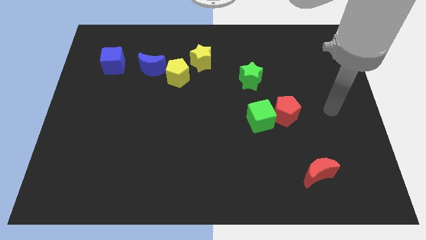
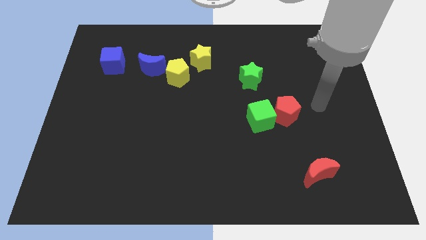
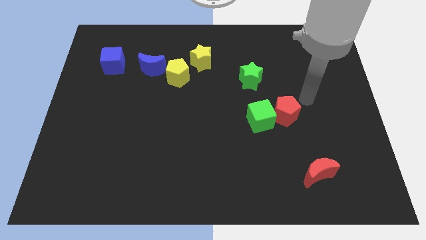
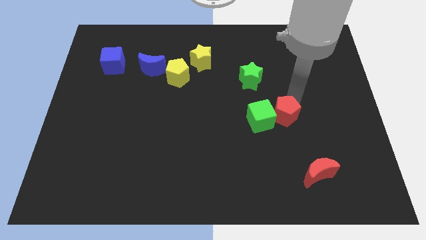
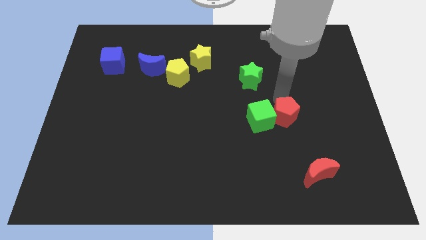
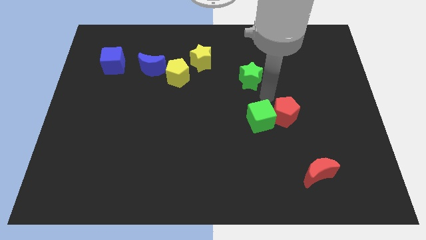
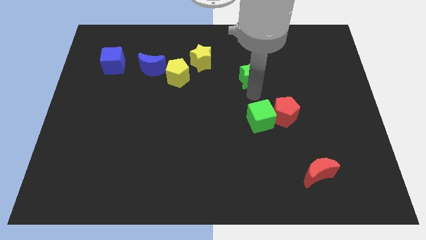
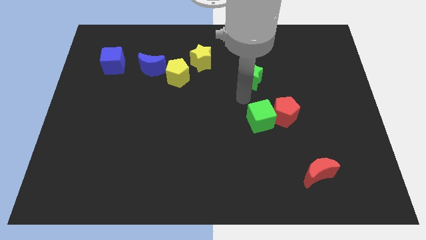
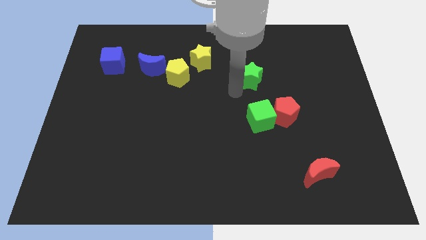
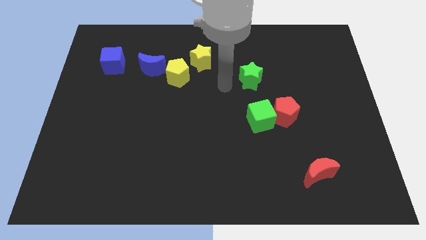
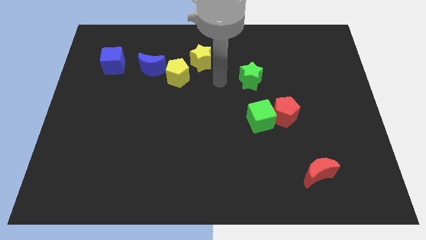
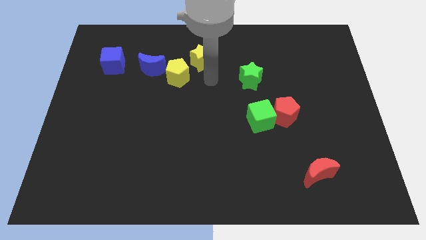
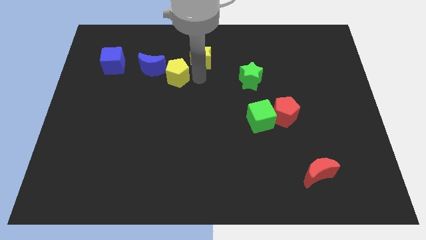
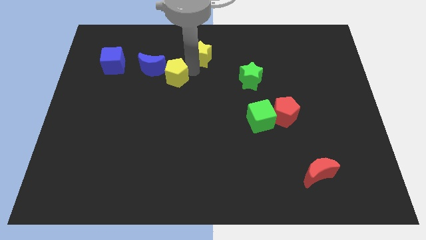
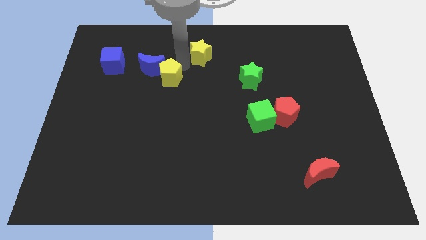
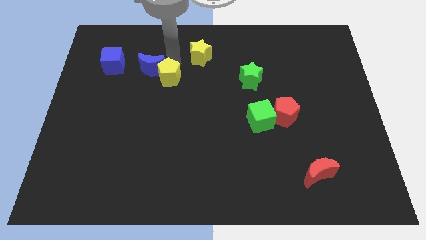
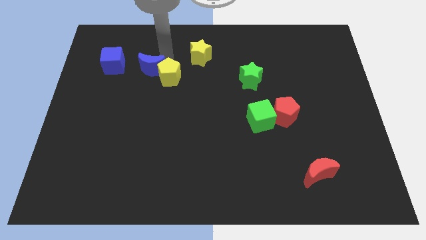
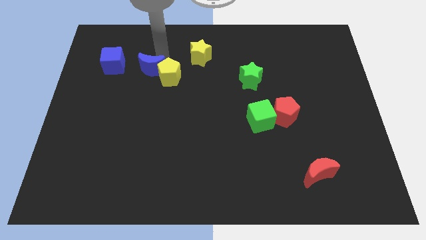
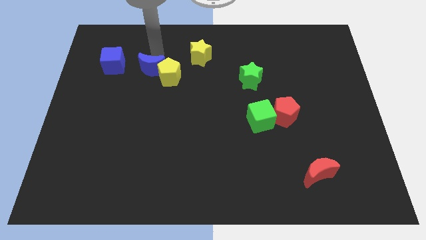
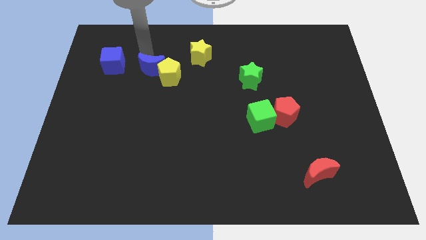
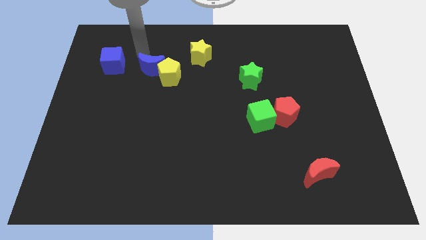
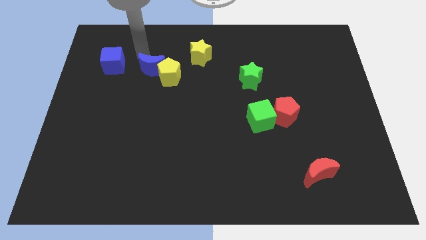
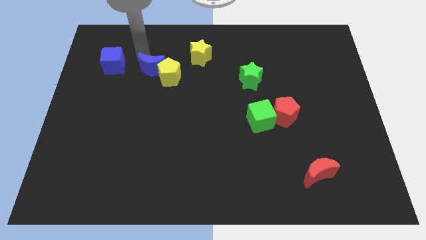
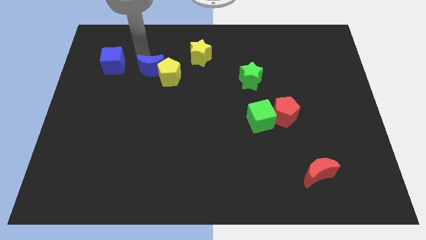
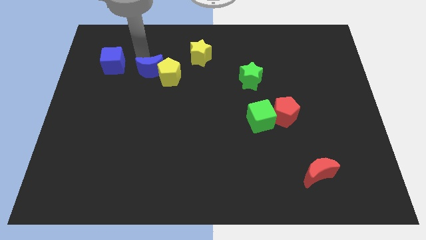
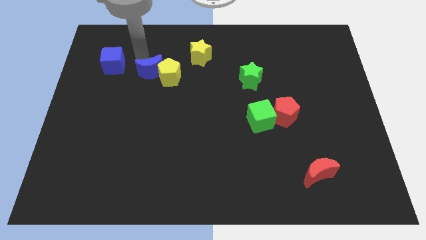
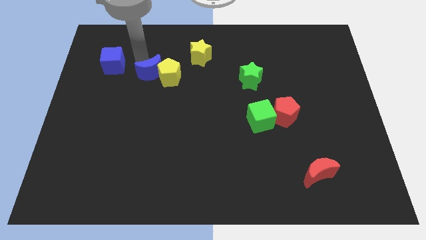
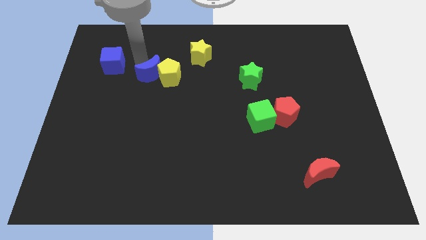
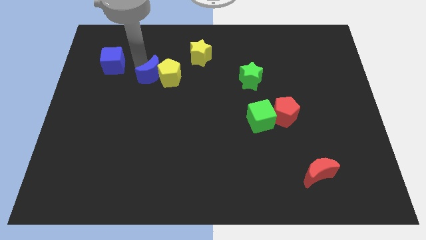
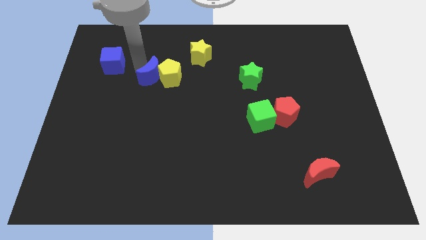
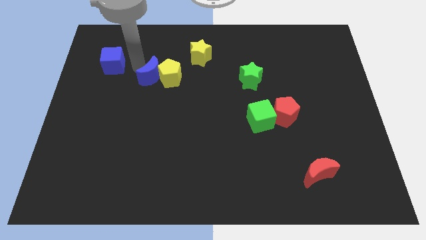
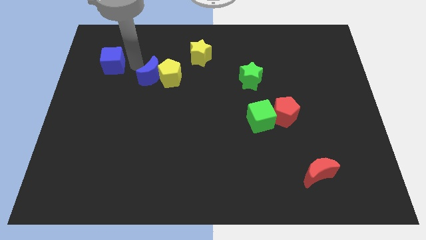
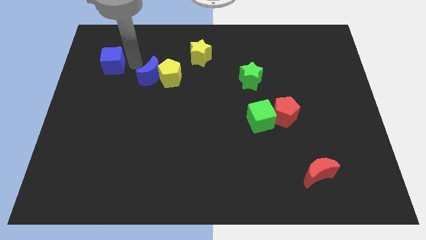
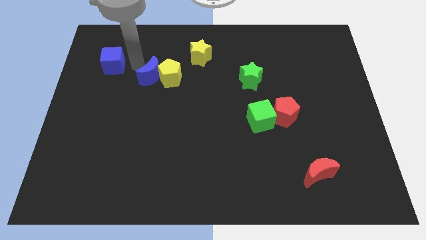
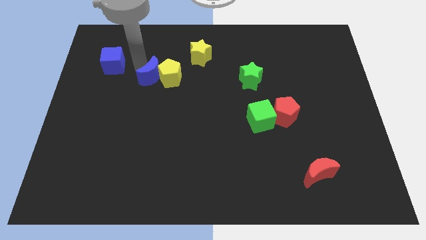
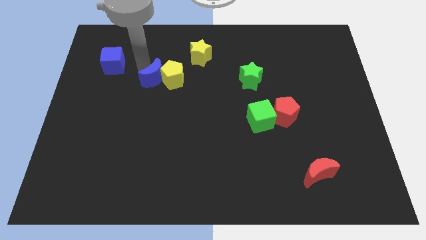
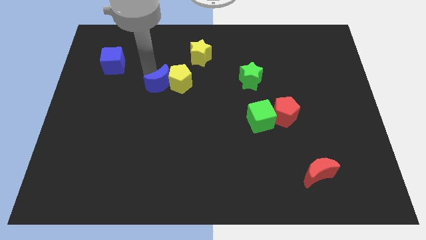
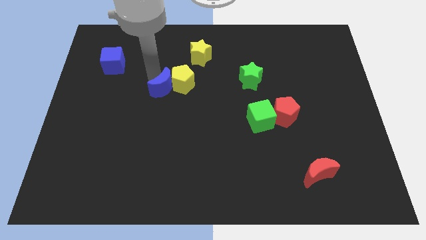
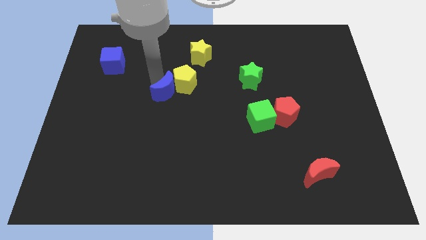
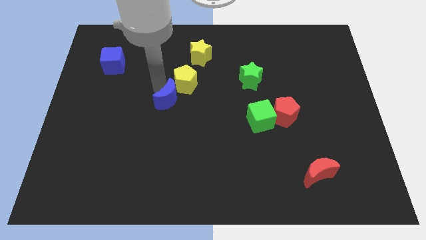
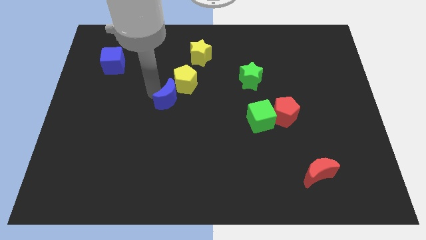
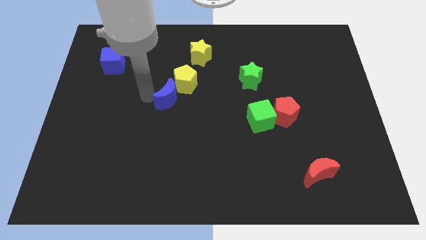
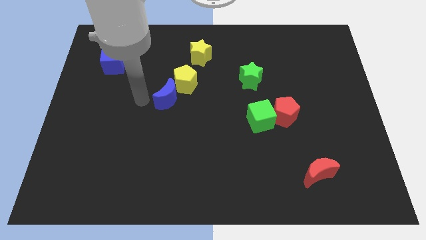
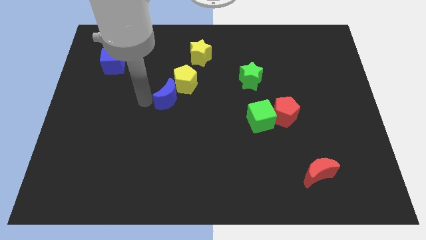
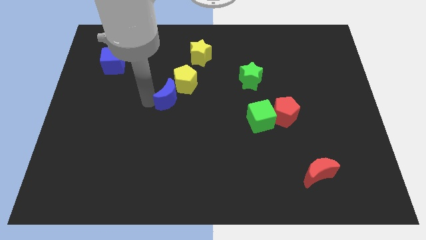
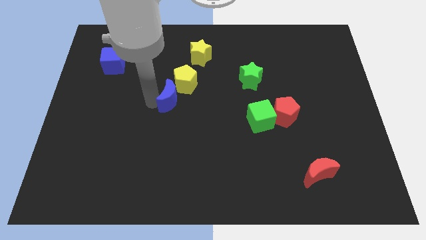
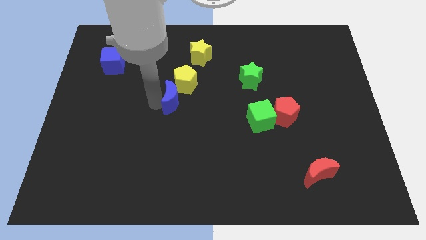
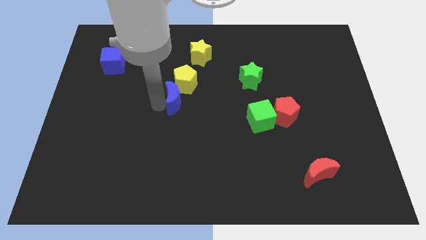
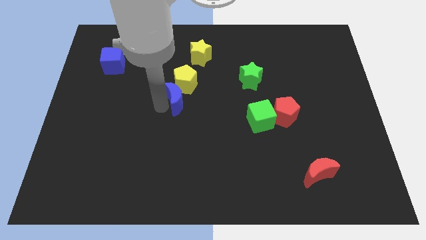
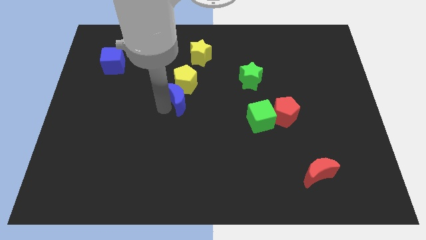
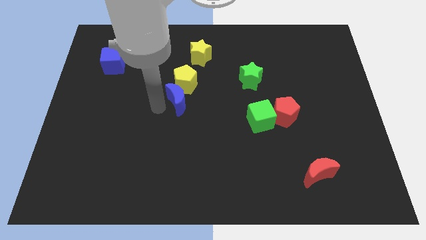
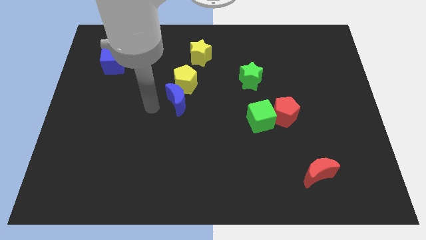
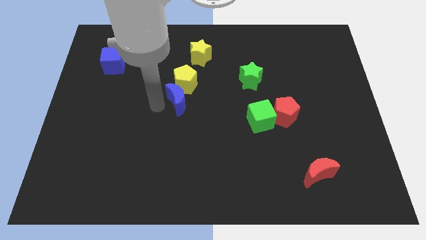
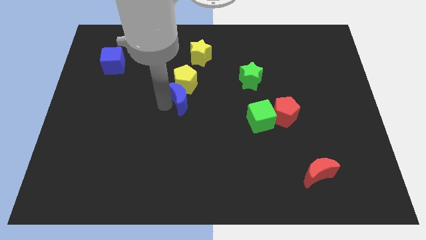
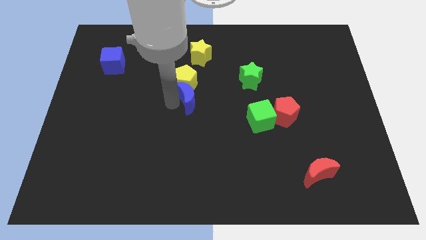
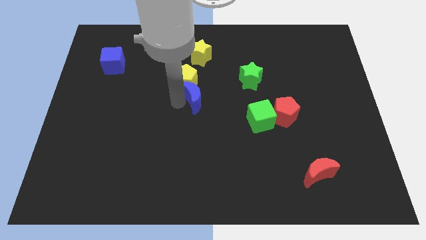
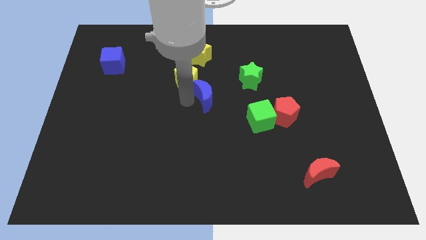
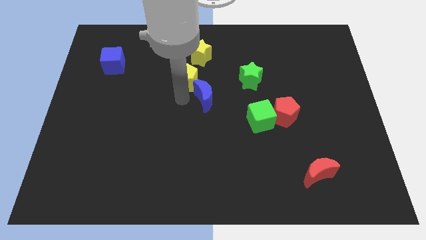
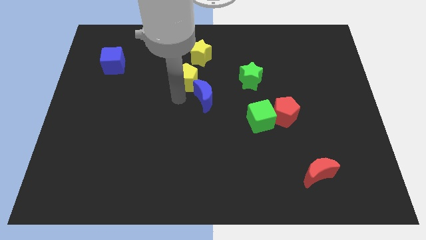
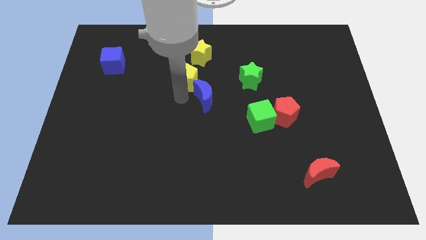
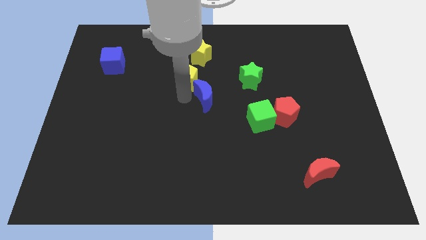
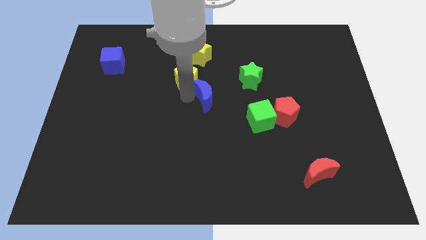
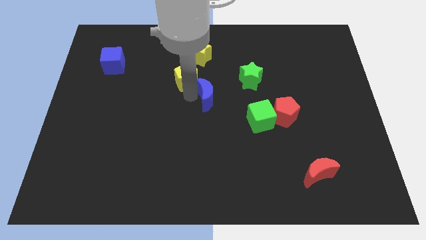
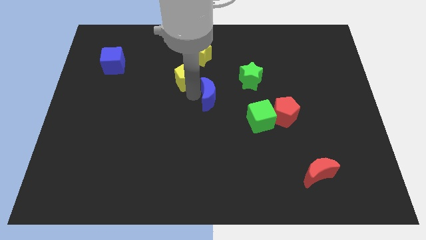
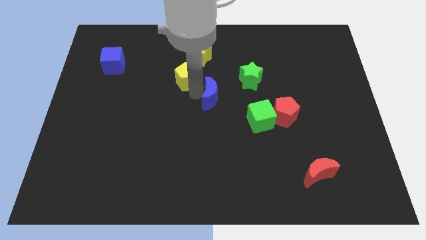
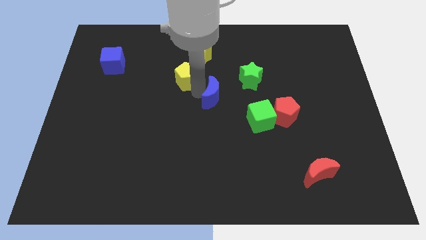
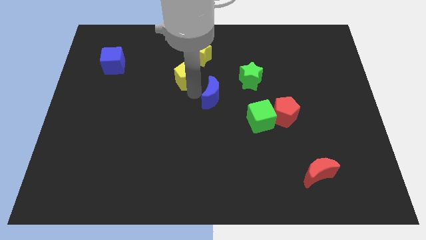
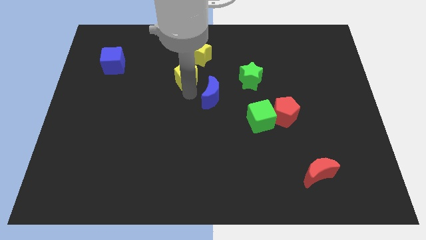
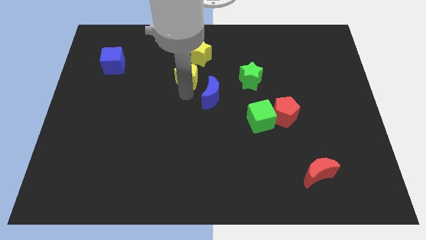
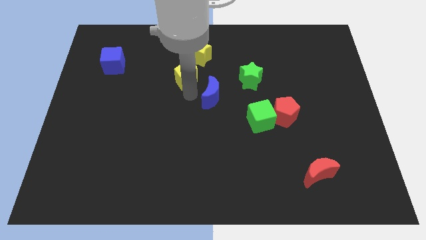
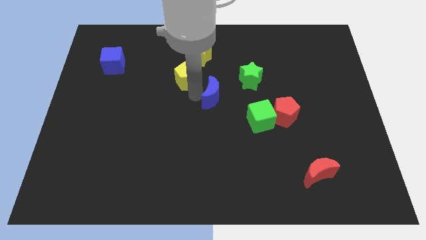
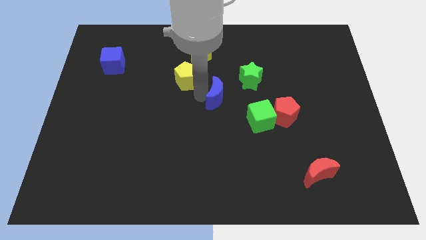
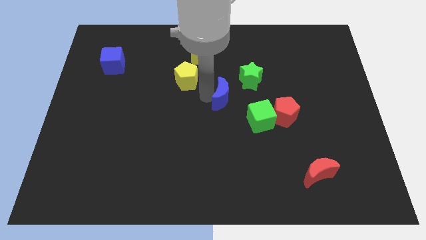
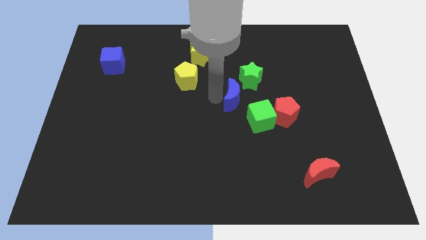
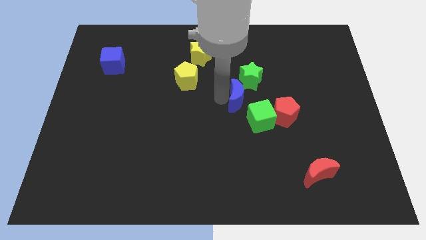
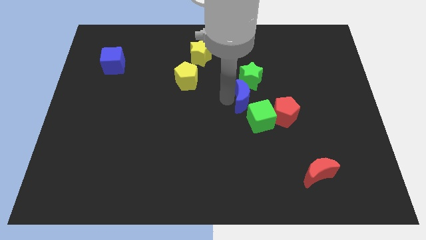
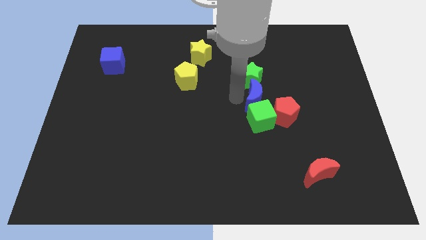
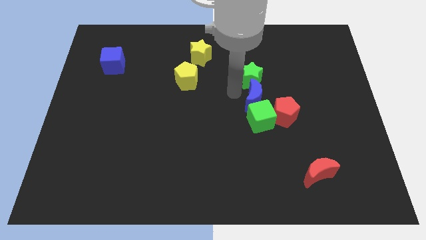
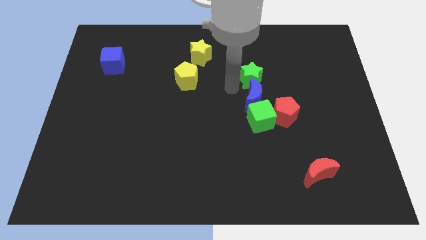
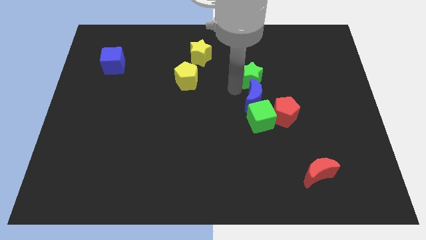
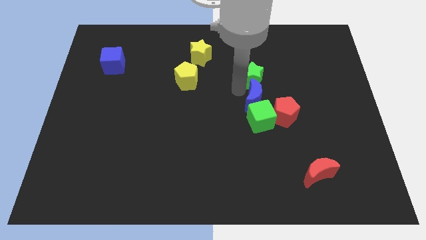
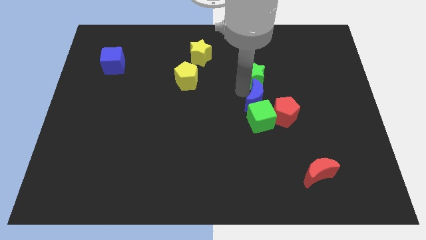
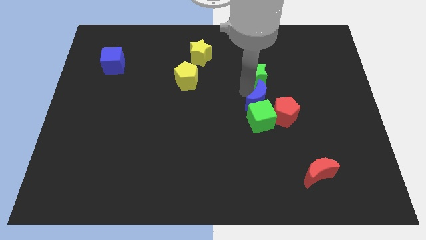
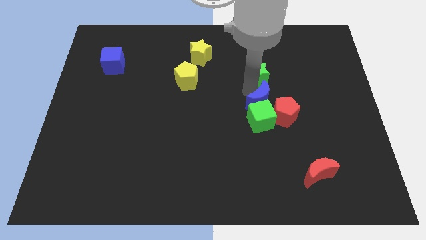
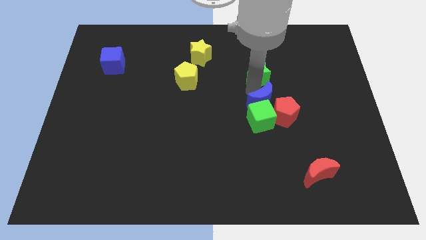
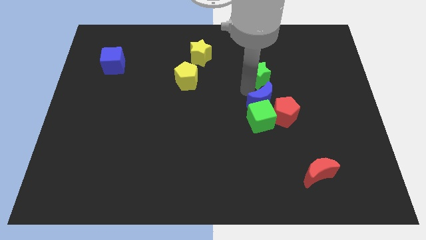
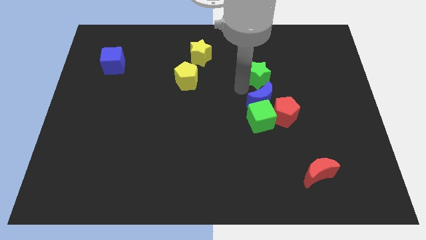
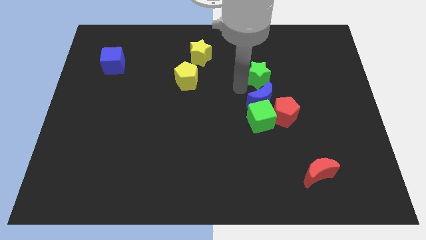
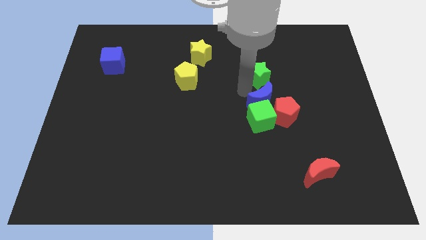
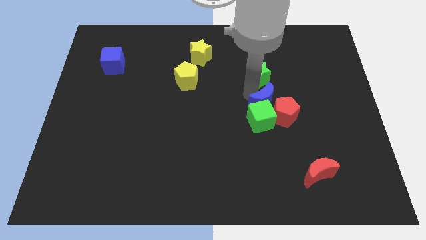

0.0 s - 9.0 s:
push the blue moon towards the red pentagon
